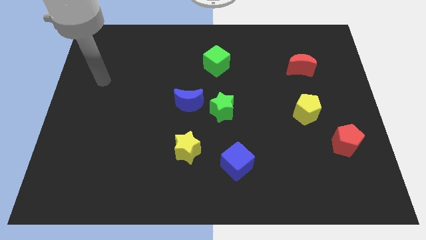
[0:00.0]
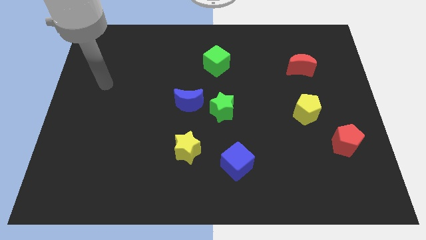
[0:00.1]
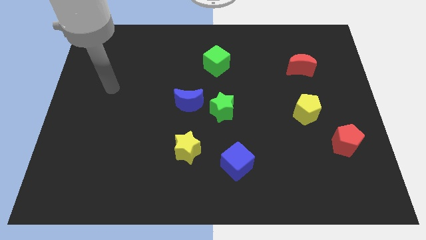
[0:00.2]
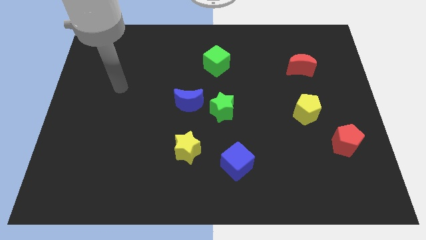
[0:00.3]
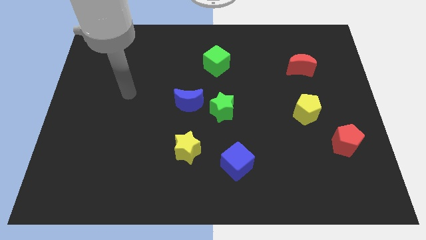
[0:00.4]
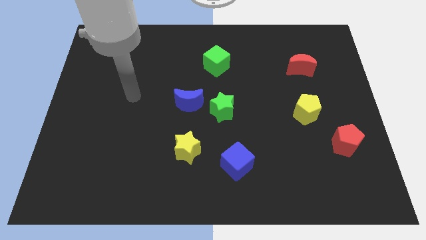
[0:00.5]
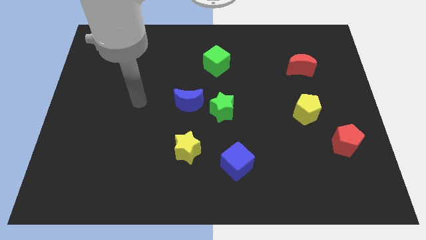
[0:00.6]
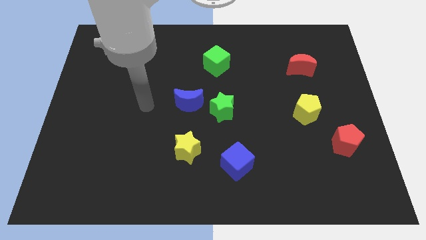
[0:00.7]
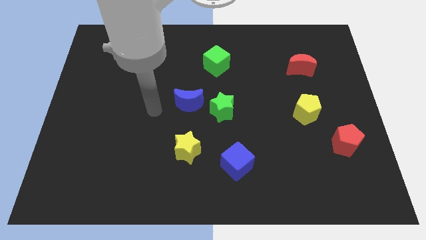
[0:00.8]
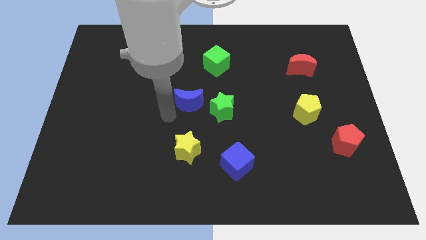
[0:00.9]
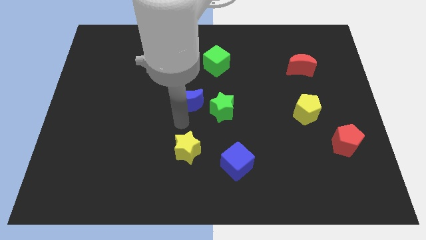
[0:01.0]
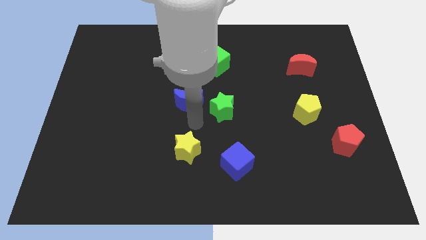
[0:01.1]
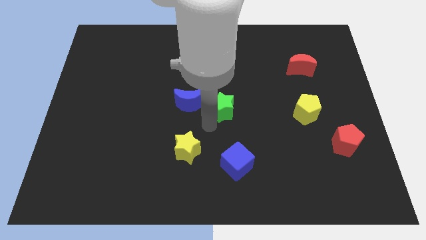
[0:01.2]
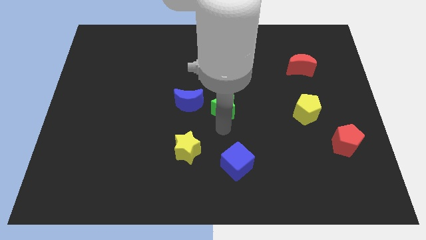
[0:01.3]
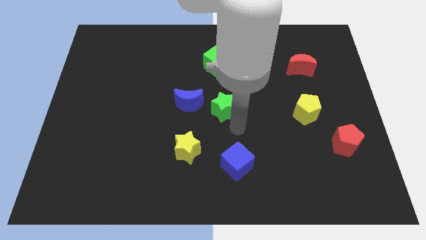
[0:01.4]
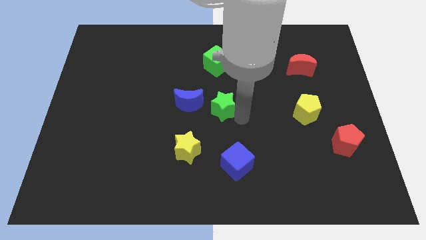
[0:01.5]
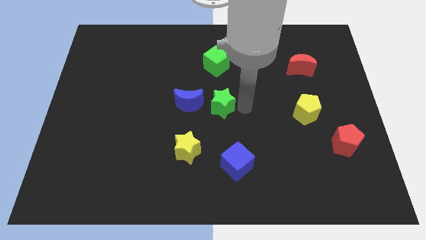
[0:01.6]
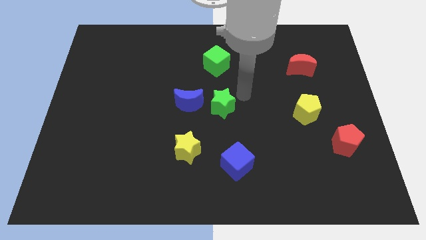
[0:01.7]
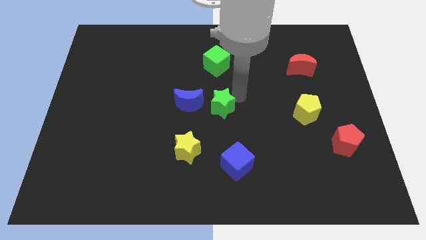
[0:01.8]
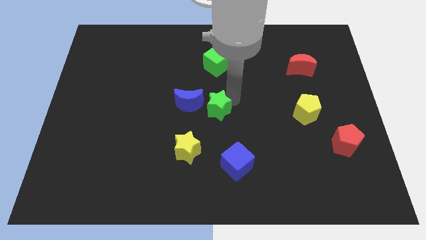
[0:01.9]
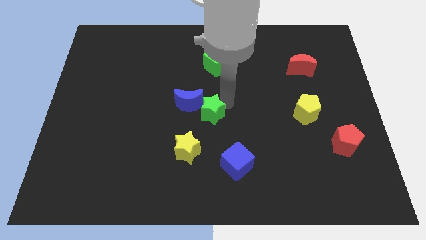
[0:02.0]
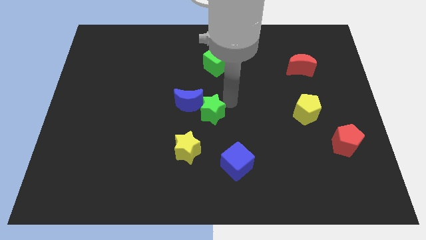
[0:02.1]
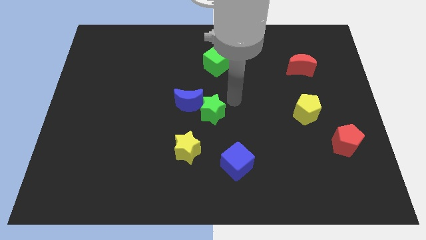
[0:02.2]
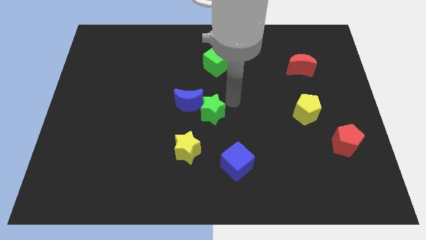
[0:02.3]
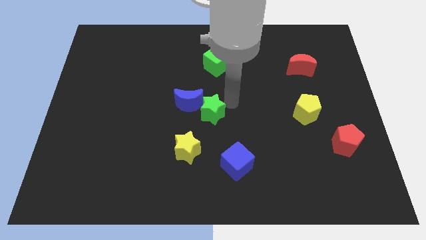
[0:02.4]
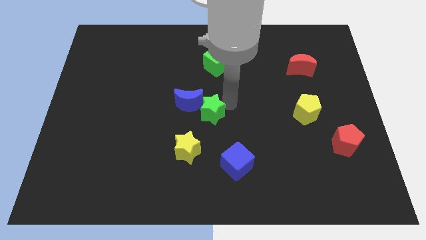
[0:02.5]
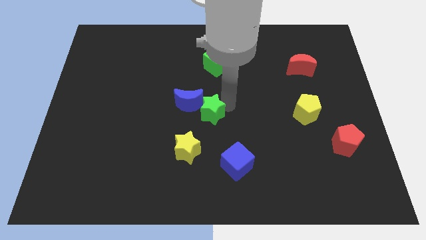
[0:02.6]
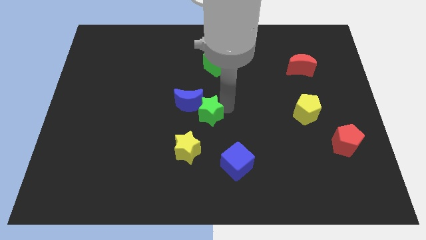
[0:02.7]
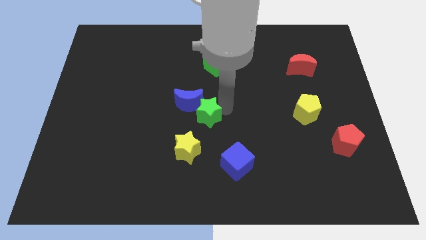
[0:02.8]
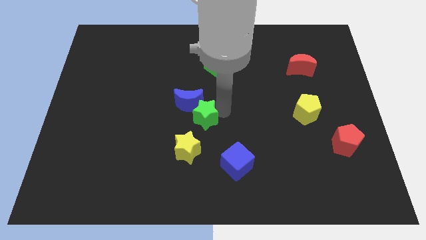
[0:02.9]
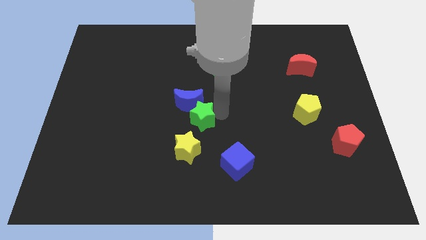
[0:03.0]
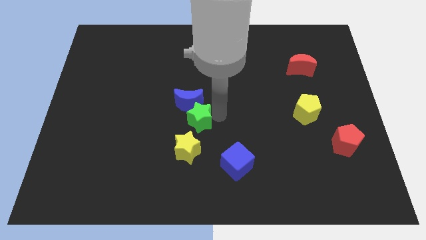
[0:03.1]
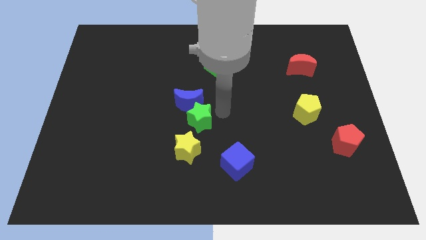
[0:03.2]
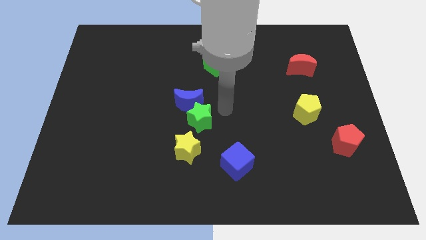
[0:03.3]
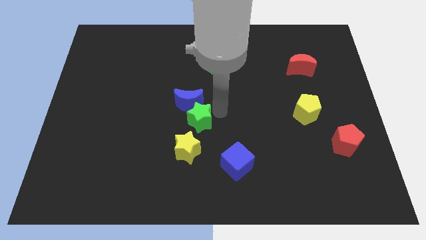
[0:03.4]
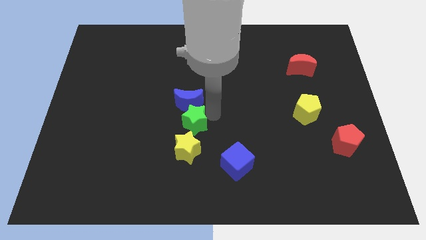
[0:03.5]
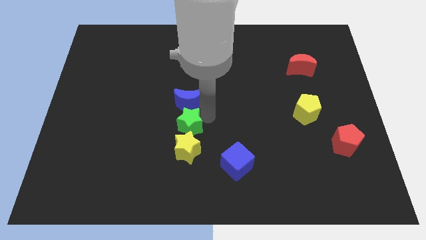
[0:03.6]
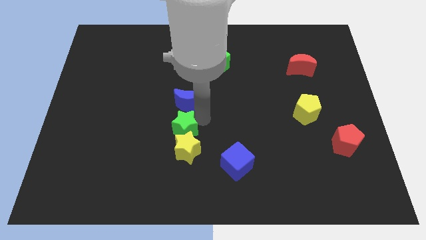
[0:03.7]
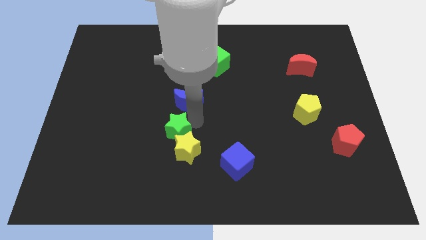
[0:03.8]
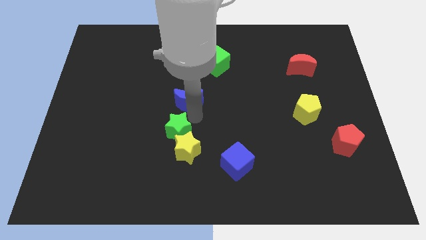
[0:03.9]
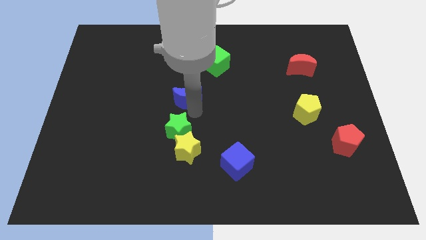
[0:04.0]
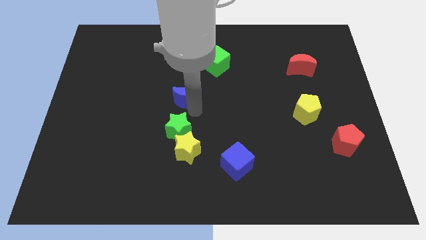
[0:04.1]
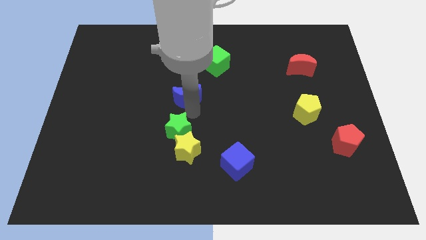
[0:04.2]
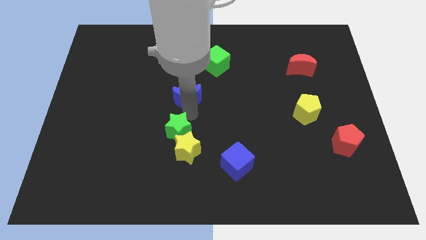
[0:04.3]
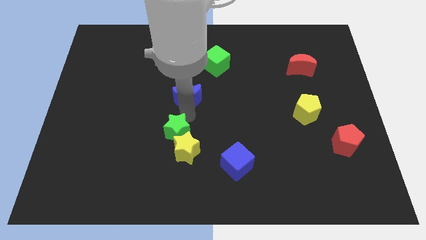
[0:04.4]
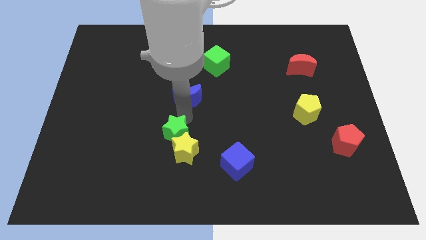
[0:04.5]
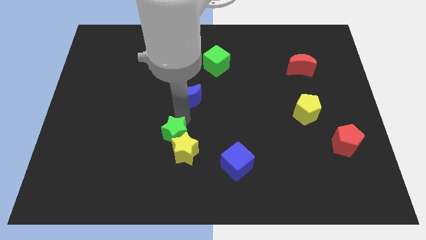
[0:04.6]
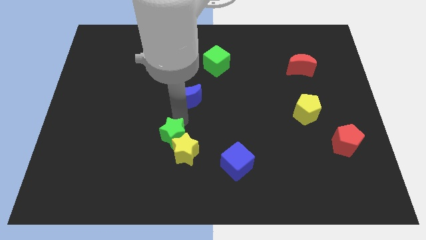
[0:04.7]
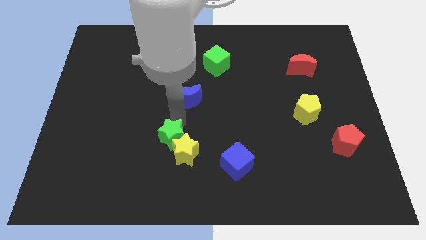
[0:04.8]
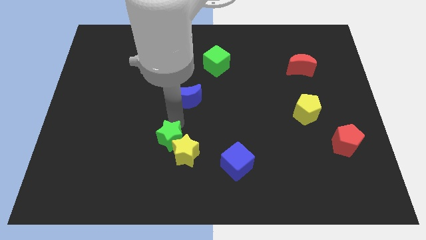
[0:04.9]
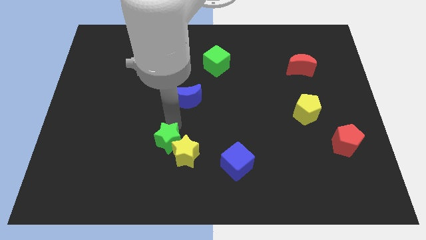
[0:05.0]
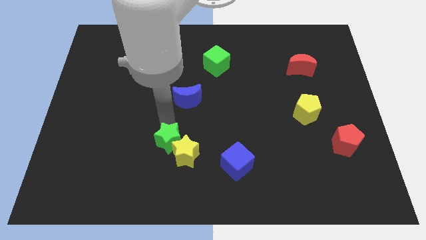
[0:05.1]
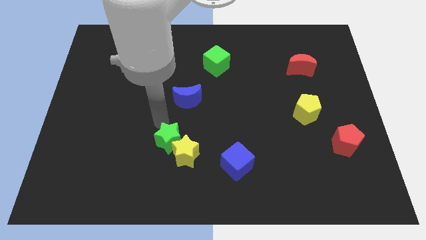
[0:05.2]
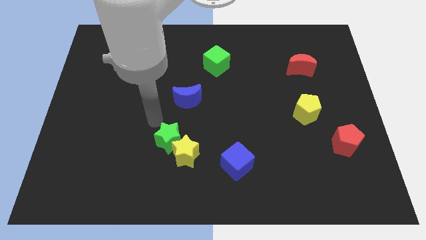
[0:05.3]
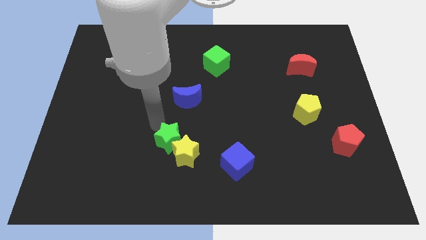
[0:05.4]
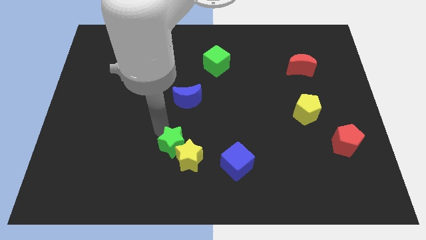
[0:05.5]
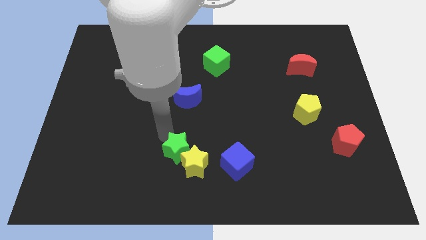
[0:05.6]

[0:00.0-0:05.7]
push the green star left of the blue cube

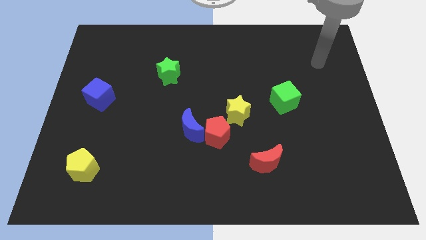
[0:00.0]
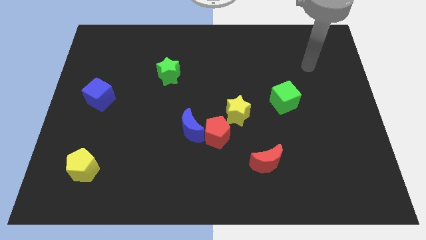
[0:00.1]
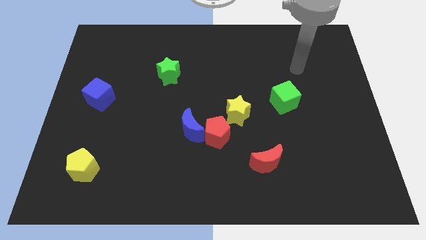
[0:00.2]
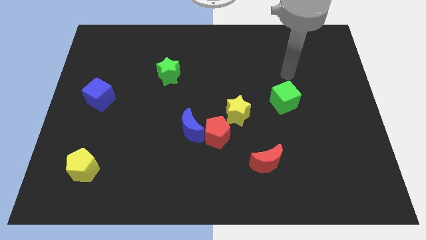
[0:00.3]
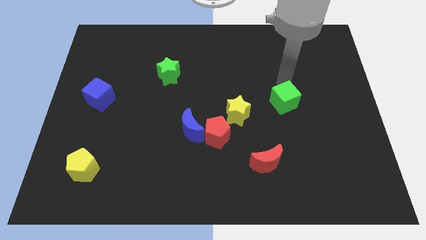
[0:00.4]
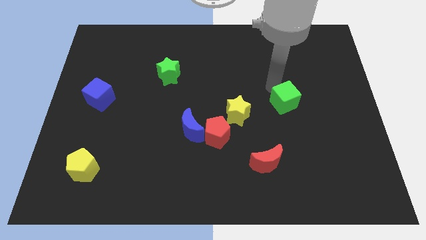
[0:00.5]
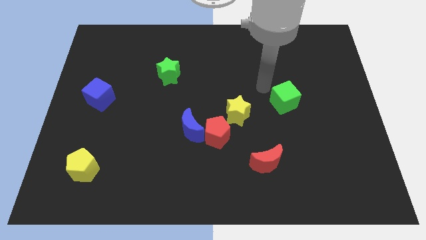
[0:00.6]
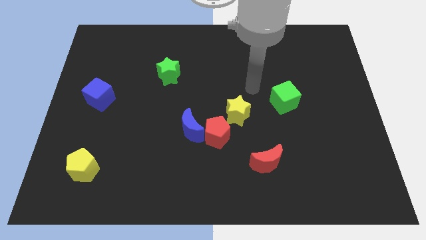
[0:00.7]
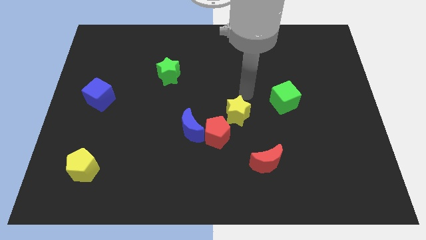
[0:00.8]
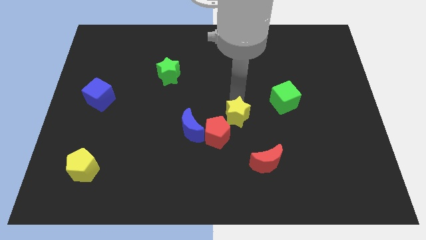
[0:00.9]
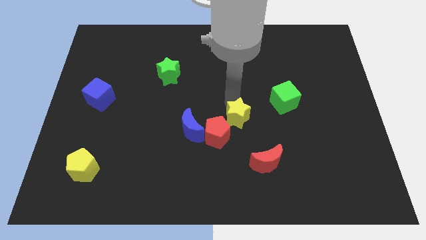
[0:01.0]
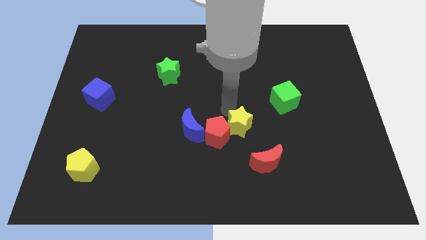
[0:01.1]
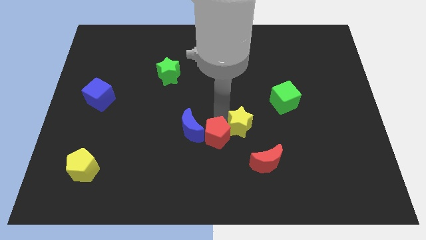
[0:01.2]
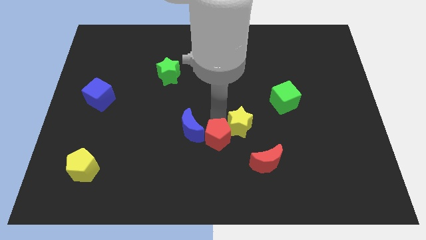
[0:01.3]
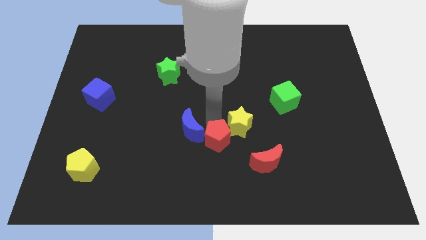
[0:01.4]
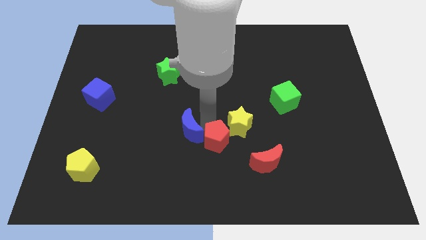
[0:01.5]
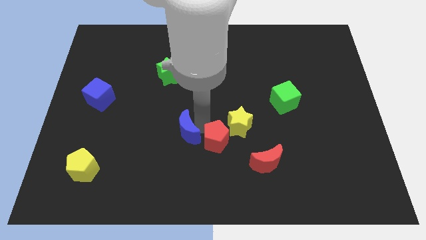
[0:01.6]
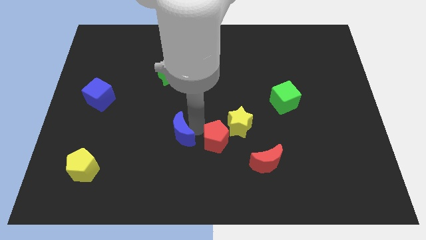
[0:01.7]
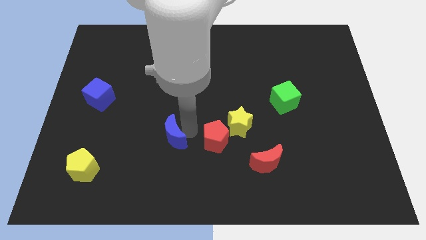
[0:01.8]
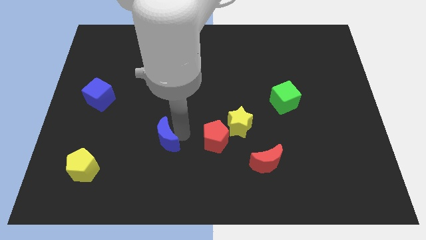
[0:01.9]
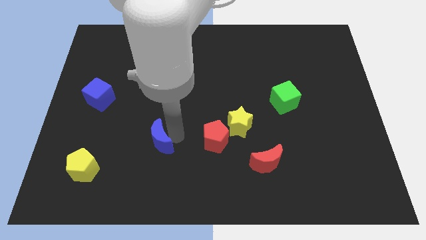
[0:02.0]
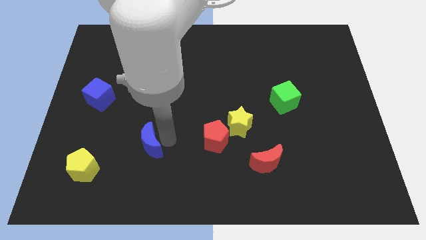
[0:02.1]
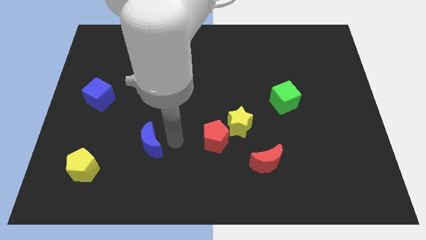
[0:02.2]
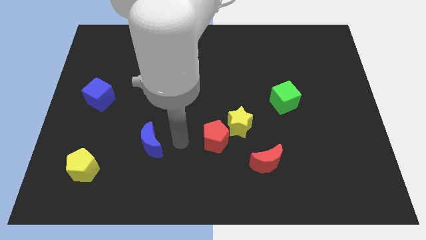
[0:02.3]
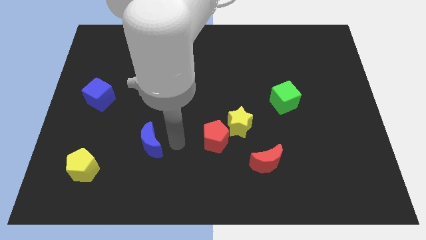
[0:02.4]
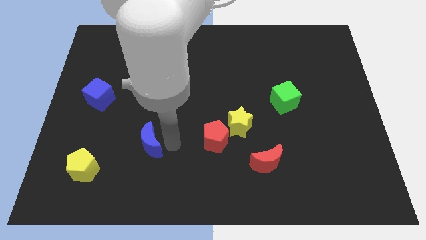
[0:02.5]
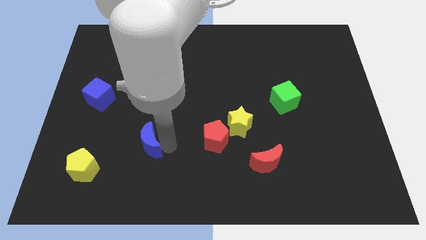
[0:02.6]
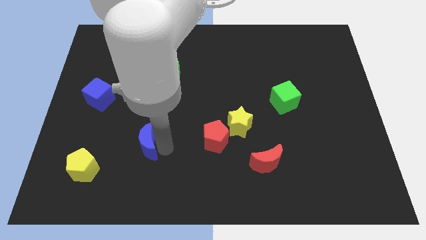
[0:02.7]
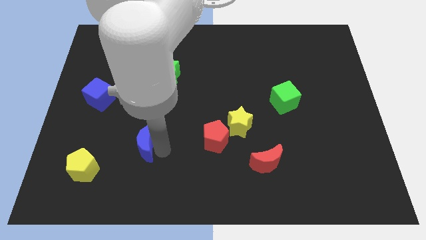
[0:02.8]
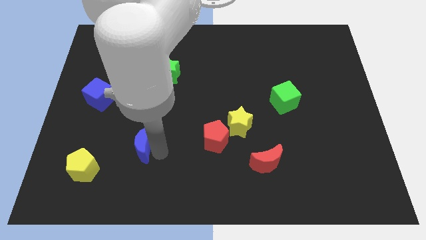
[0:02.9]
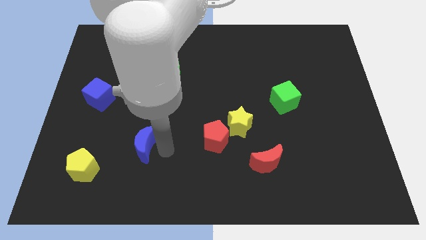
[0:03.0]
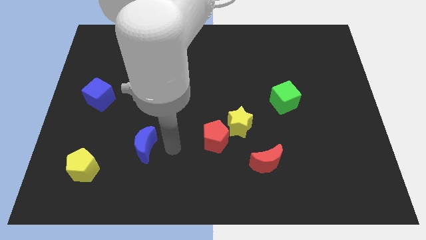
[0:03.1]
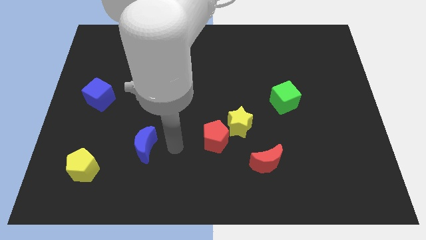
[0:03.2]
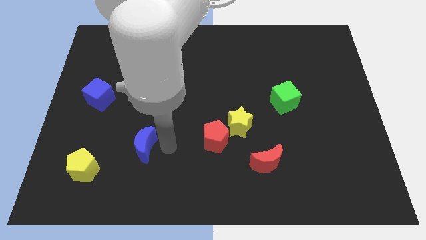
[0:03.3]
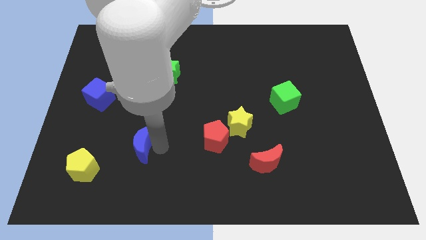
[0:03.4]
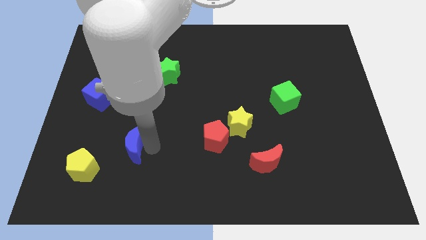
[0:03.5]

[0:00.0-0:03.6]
move the blue moon to the top right side of the yellow pentagon
